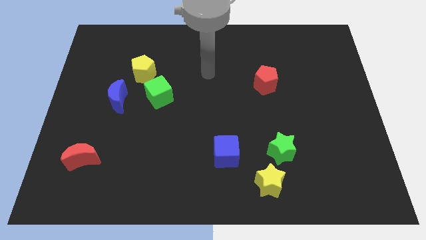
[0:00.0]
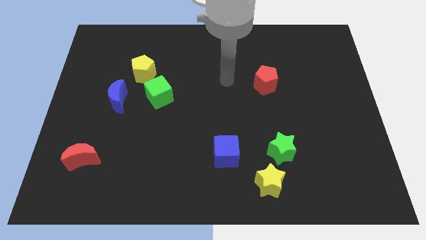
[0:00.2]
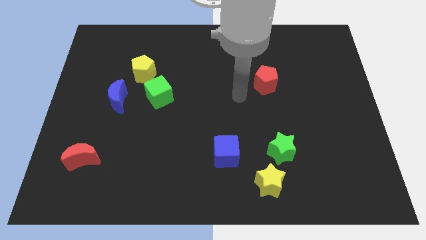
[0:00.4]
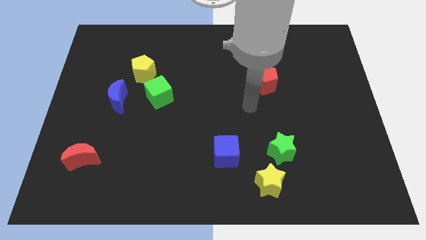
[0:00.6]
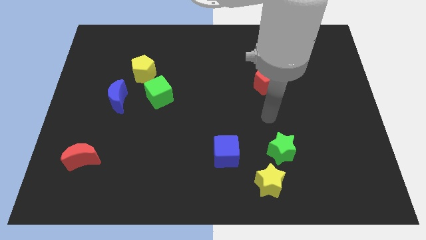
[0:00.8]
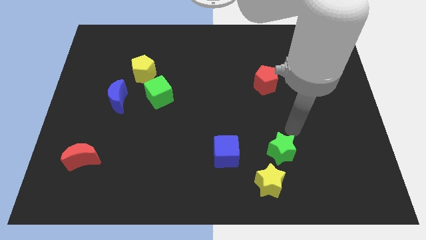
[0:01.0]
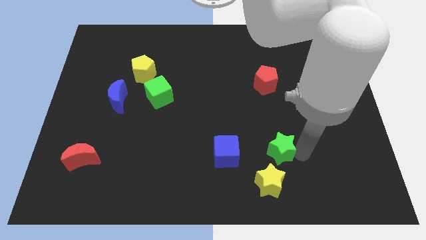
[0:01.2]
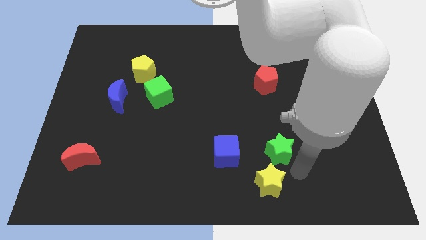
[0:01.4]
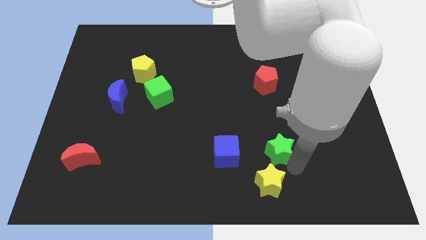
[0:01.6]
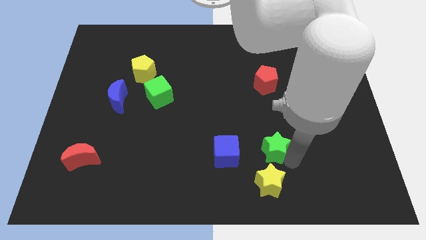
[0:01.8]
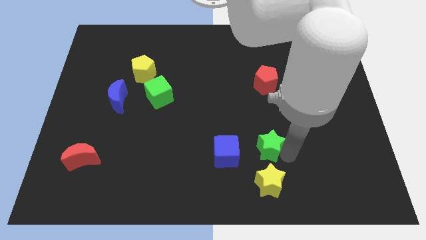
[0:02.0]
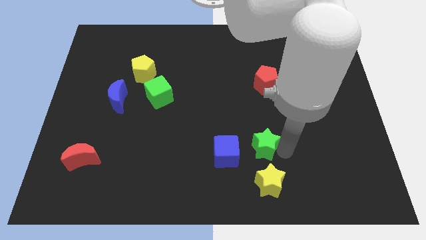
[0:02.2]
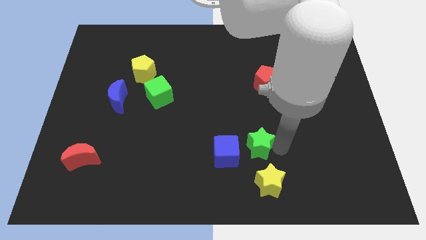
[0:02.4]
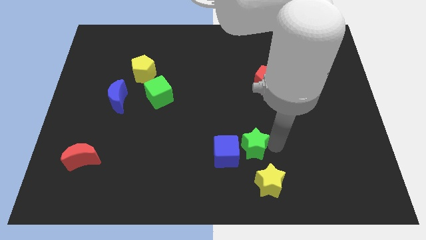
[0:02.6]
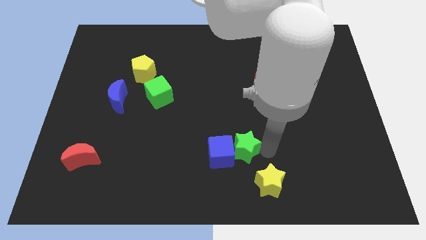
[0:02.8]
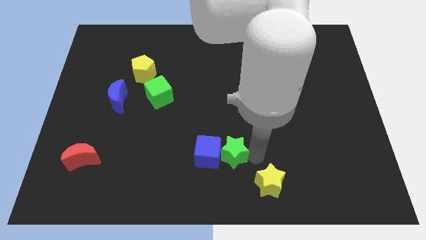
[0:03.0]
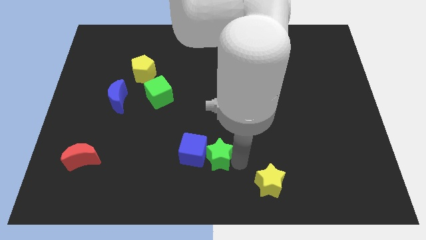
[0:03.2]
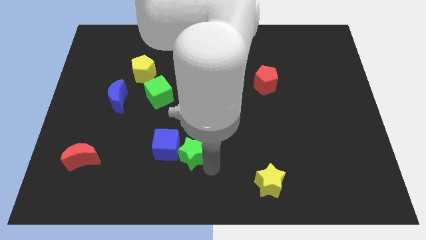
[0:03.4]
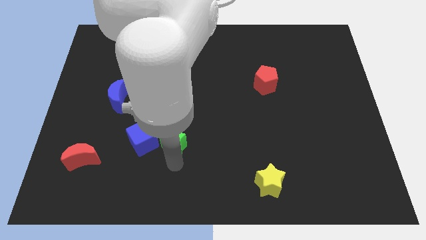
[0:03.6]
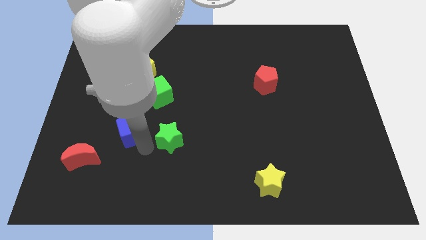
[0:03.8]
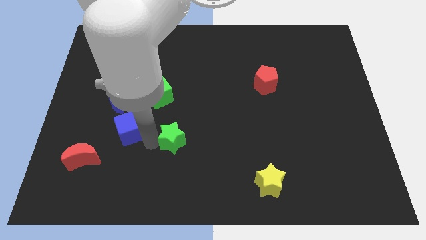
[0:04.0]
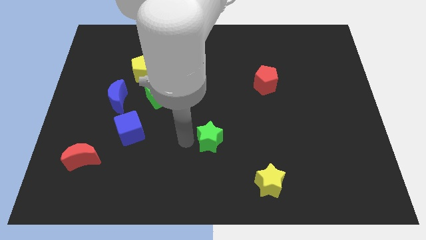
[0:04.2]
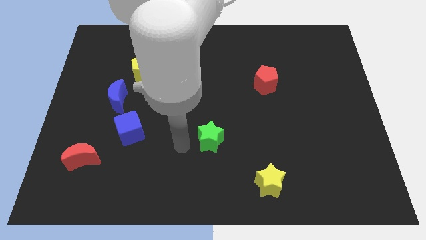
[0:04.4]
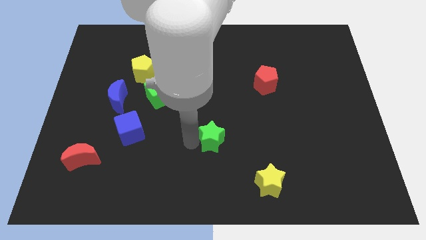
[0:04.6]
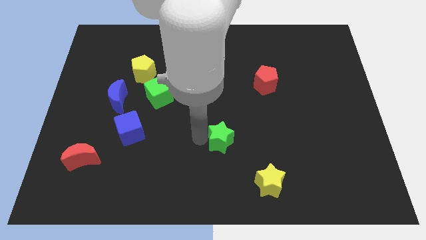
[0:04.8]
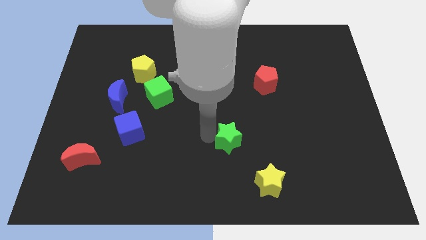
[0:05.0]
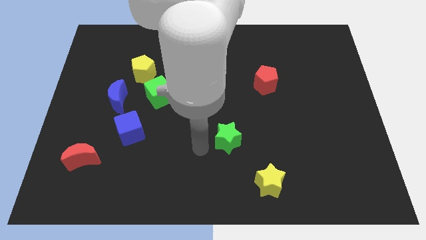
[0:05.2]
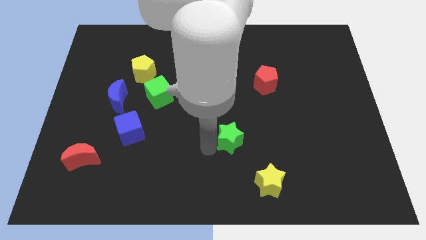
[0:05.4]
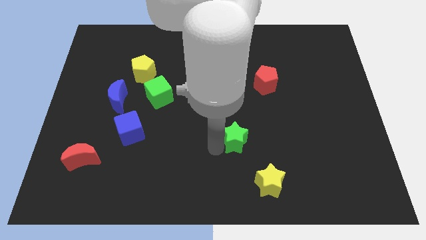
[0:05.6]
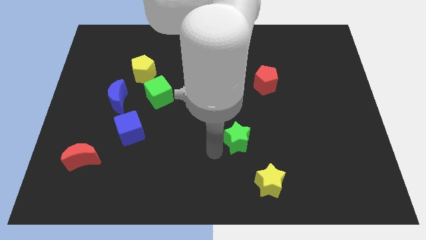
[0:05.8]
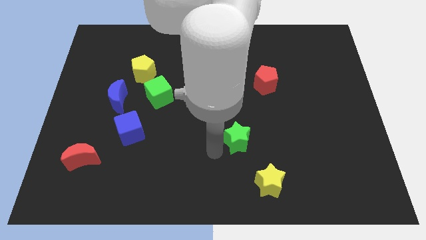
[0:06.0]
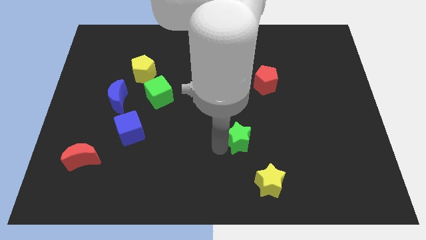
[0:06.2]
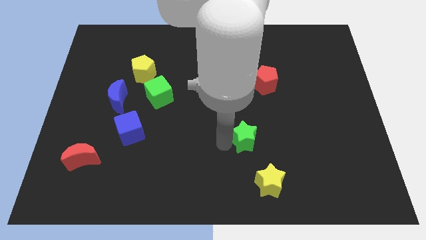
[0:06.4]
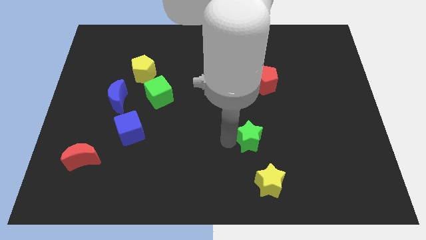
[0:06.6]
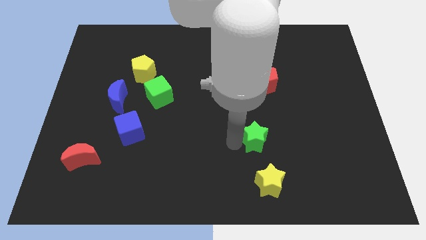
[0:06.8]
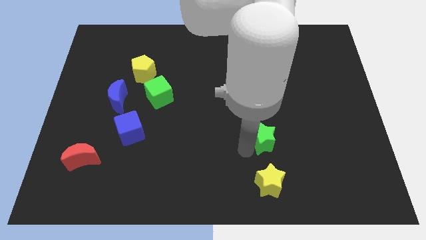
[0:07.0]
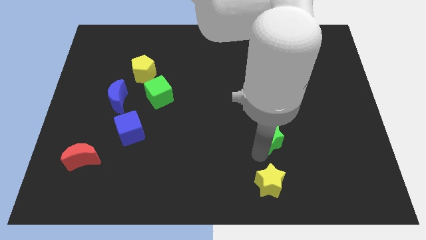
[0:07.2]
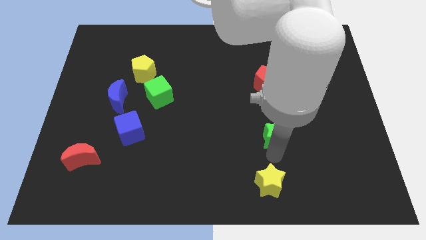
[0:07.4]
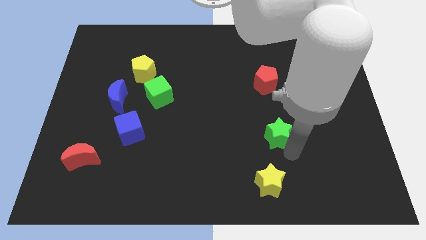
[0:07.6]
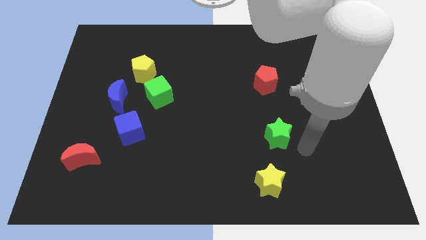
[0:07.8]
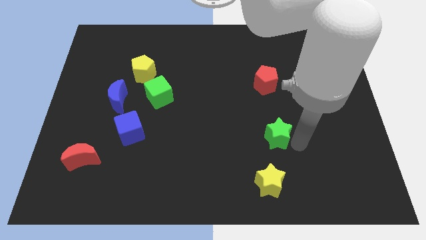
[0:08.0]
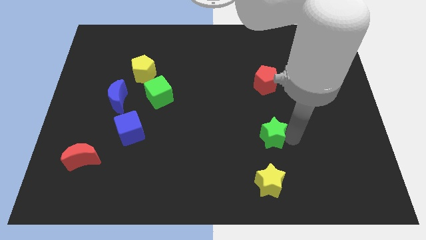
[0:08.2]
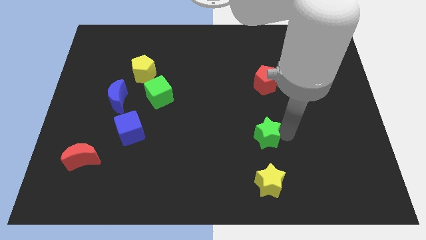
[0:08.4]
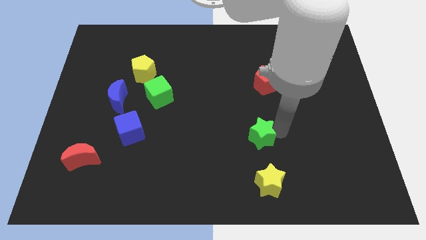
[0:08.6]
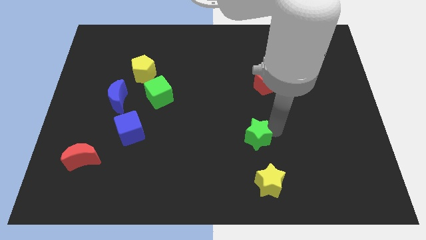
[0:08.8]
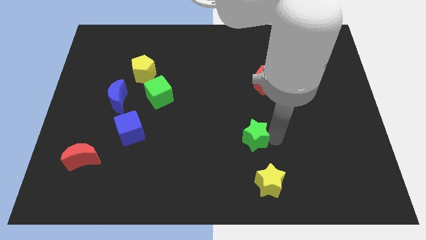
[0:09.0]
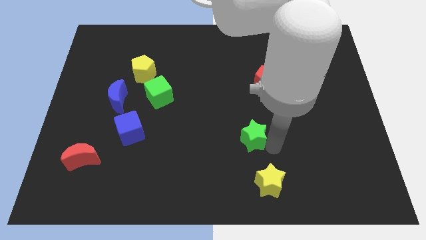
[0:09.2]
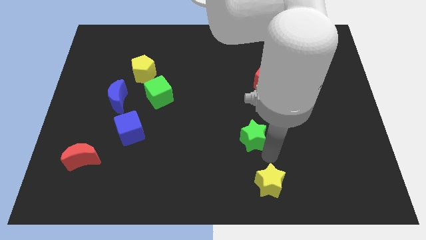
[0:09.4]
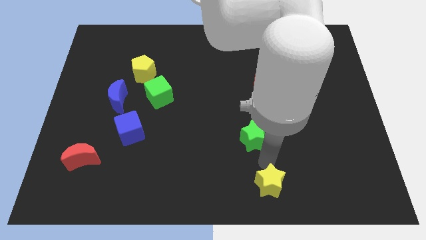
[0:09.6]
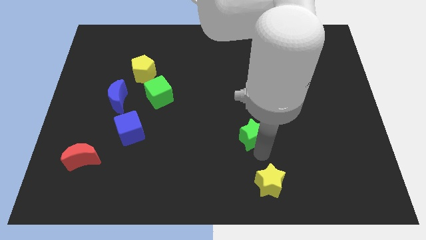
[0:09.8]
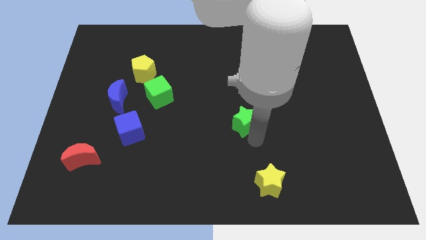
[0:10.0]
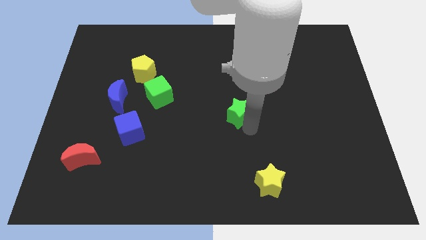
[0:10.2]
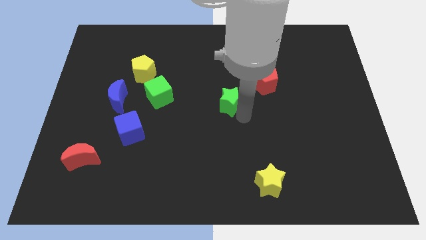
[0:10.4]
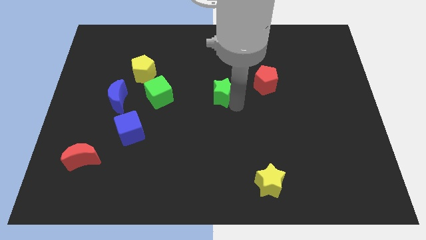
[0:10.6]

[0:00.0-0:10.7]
move the green star right of the green cube

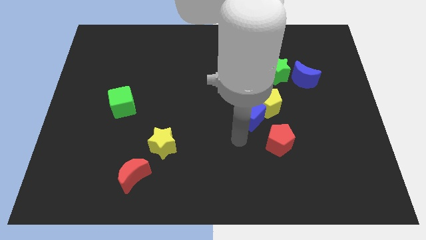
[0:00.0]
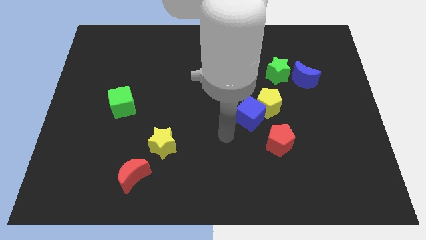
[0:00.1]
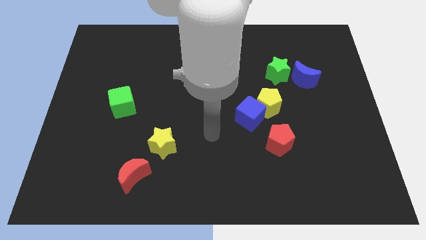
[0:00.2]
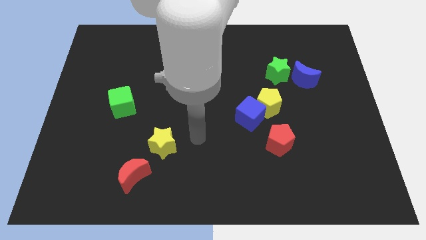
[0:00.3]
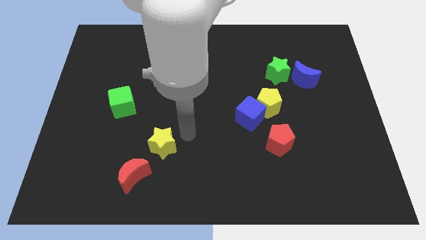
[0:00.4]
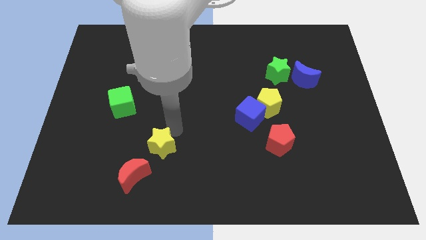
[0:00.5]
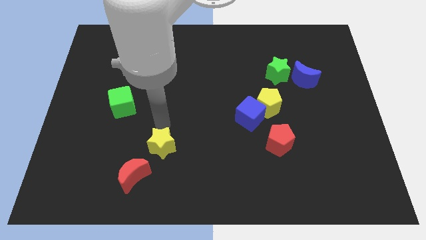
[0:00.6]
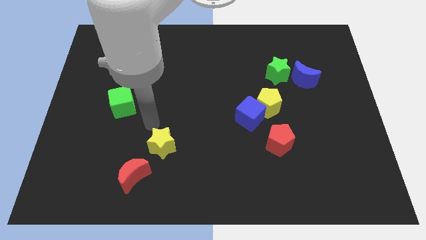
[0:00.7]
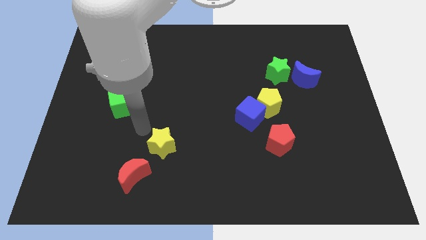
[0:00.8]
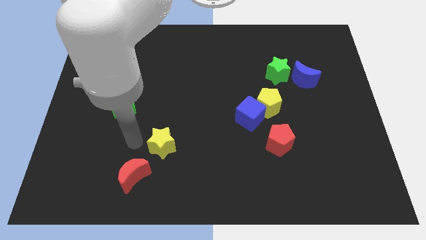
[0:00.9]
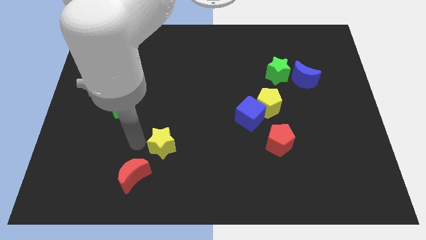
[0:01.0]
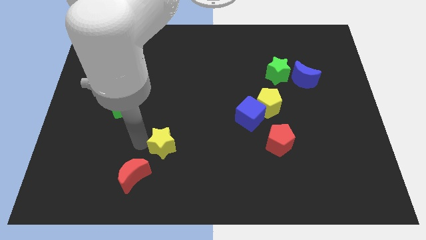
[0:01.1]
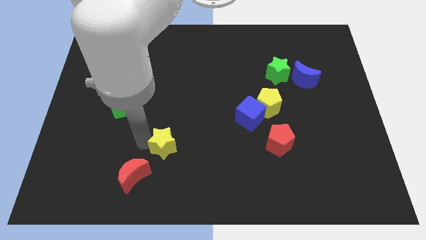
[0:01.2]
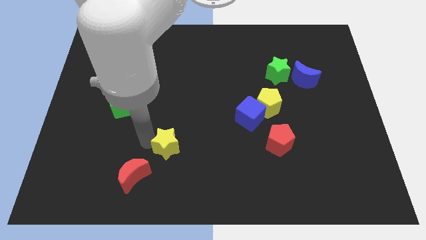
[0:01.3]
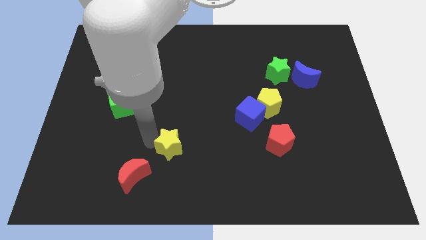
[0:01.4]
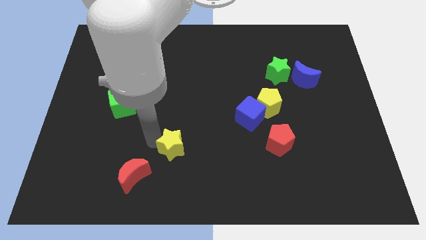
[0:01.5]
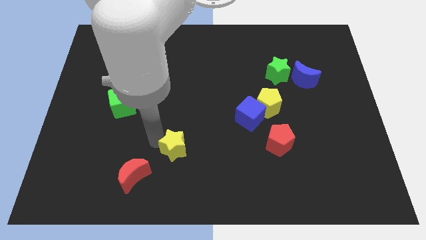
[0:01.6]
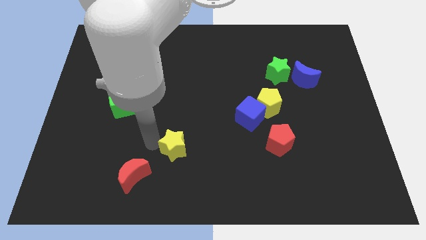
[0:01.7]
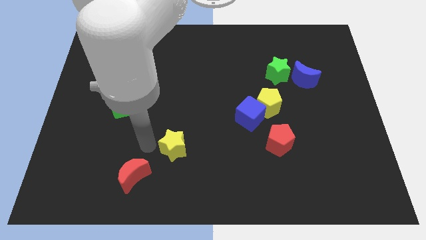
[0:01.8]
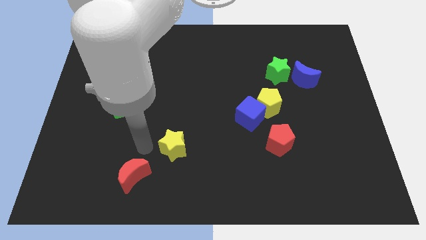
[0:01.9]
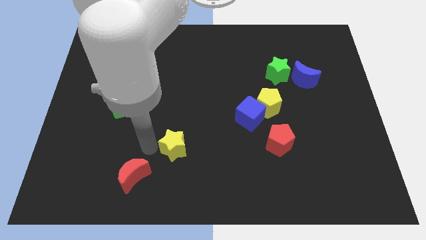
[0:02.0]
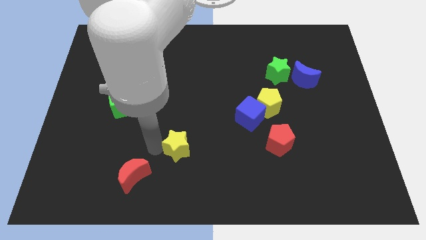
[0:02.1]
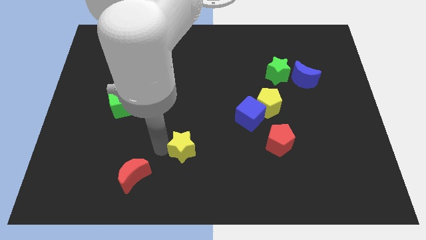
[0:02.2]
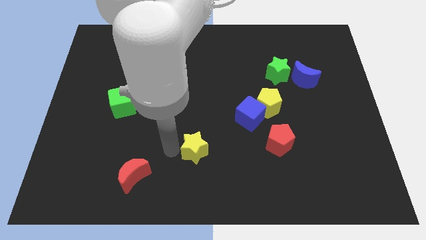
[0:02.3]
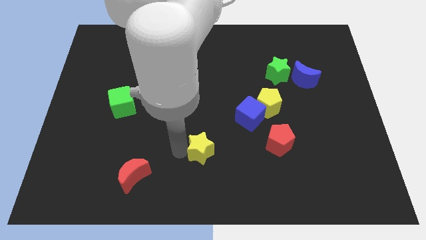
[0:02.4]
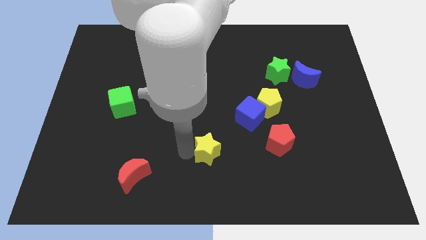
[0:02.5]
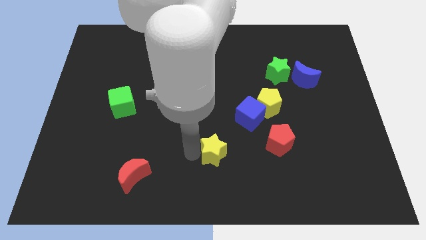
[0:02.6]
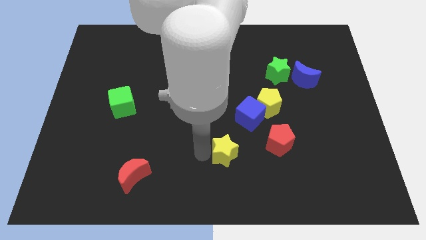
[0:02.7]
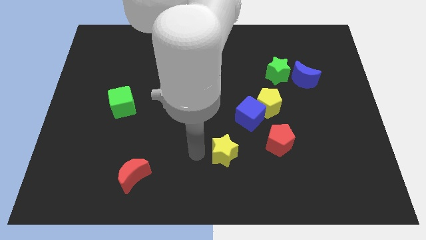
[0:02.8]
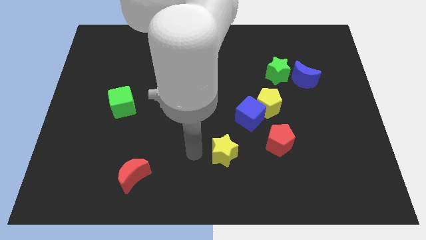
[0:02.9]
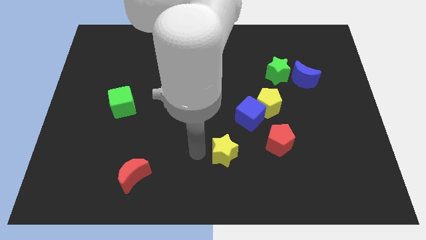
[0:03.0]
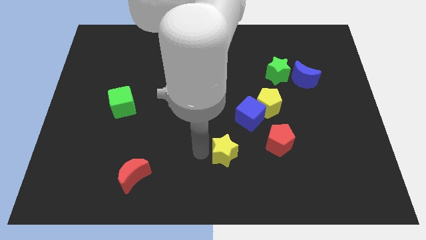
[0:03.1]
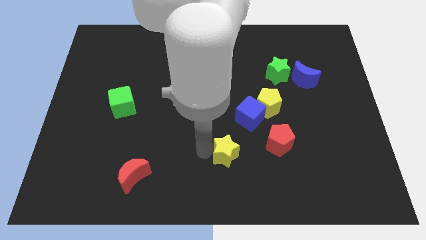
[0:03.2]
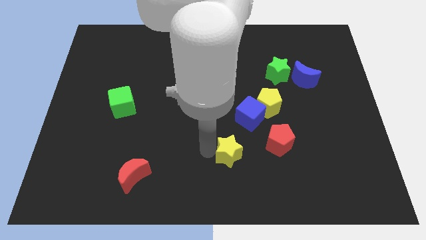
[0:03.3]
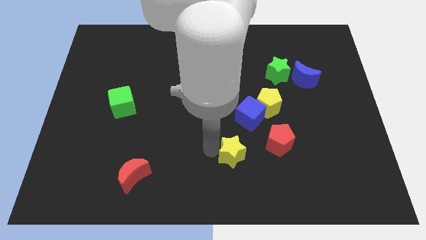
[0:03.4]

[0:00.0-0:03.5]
slide the yellow star to the bottom side of the blue cube
